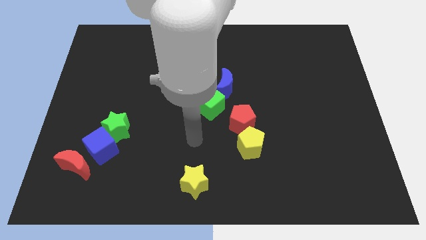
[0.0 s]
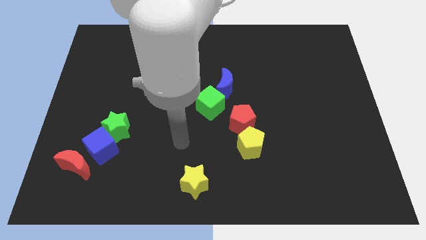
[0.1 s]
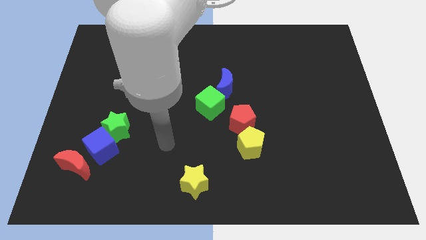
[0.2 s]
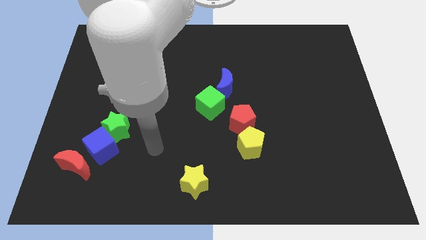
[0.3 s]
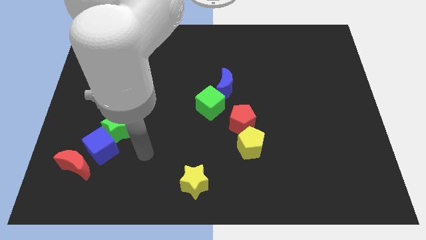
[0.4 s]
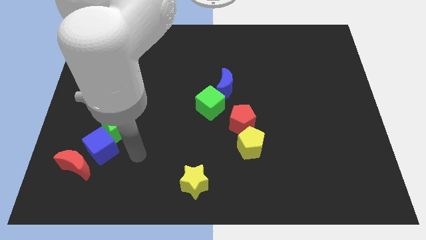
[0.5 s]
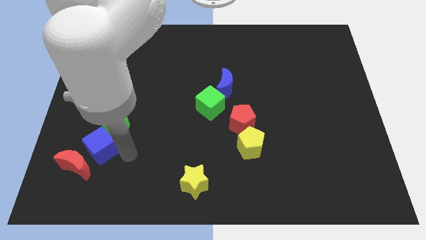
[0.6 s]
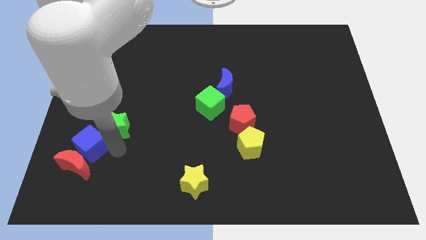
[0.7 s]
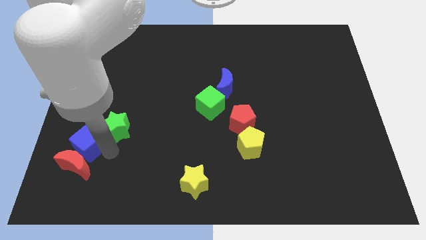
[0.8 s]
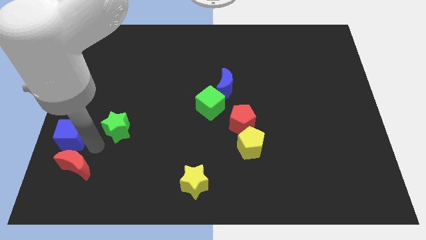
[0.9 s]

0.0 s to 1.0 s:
separate the green star from the blue cube

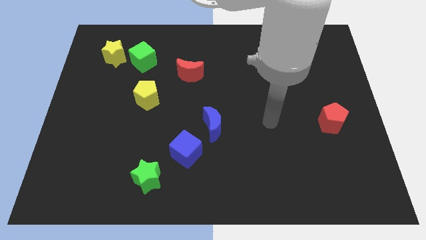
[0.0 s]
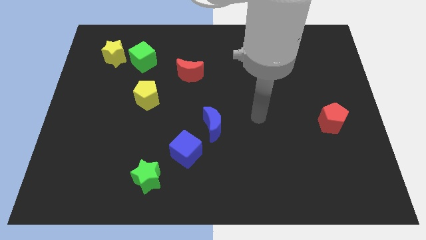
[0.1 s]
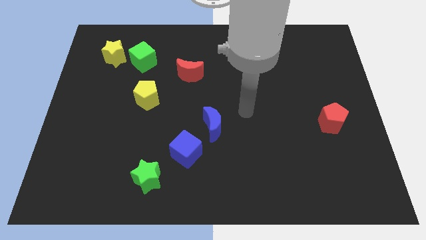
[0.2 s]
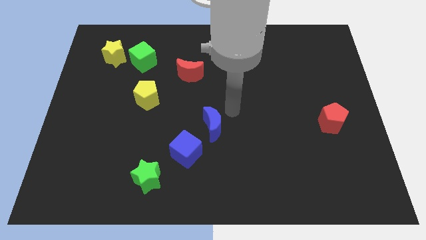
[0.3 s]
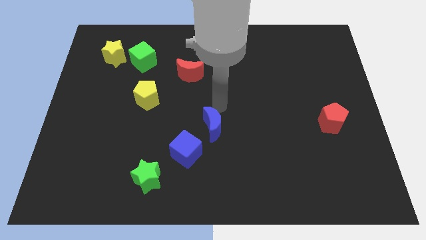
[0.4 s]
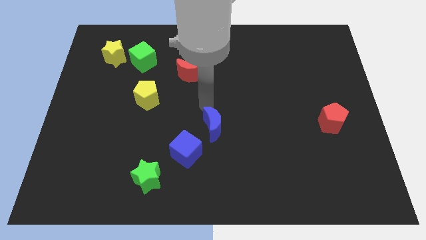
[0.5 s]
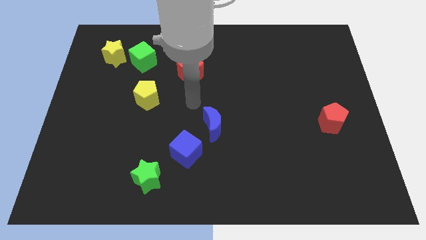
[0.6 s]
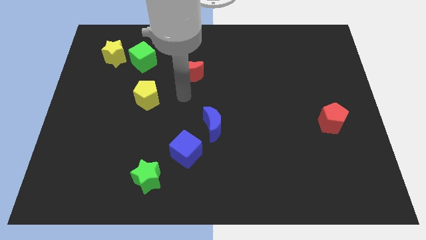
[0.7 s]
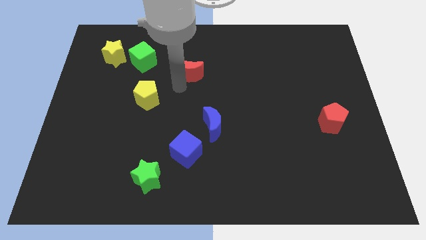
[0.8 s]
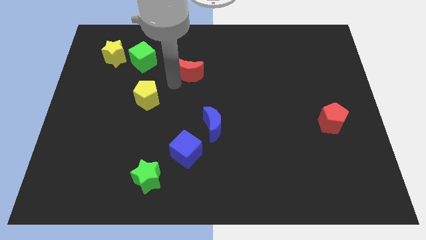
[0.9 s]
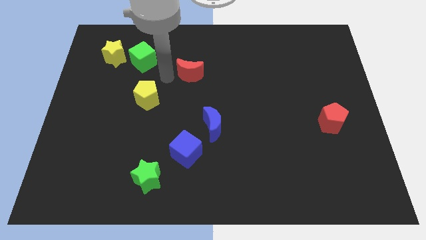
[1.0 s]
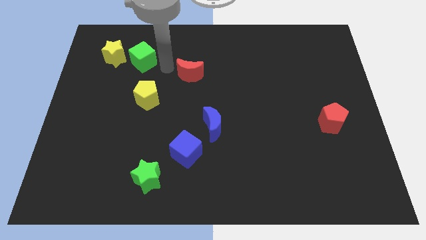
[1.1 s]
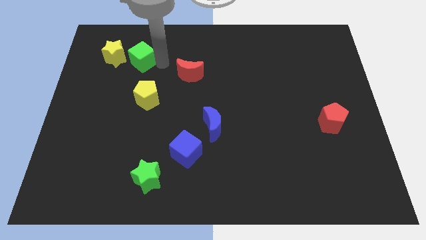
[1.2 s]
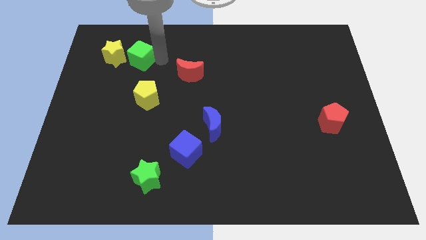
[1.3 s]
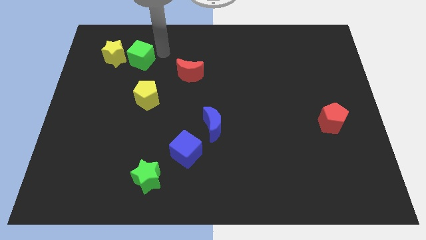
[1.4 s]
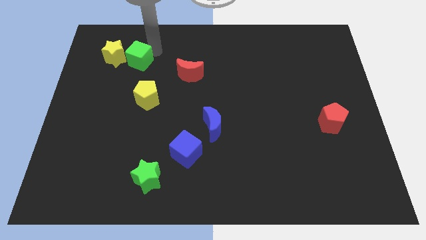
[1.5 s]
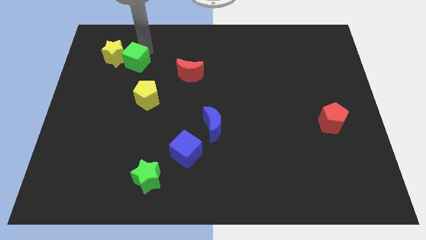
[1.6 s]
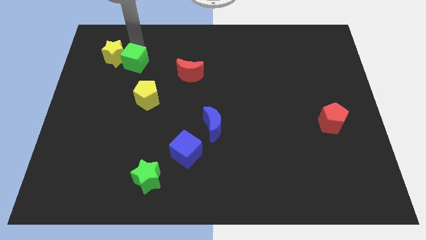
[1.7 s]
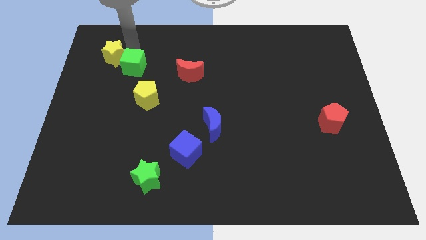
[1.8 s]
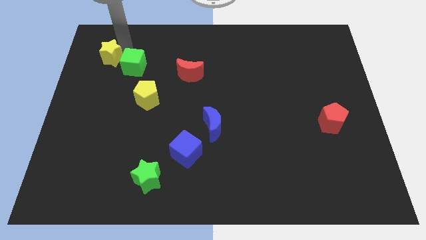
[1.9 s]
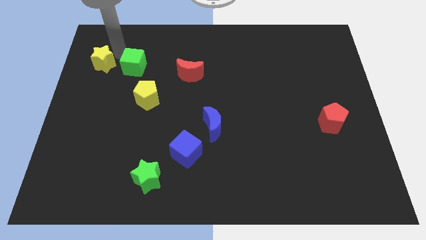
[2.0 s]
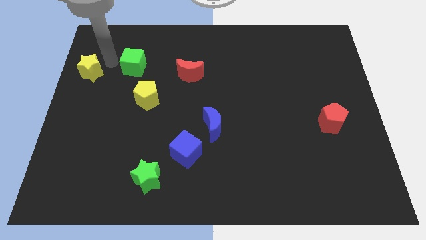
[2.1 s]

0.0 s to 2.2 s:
pull the green cube apart from the yellow star

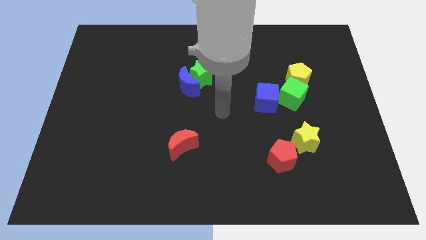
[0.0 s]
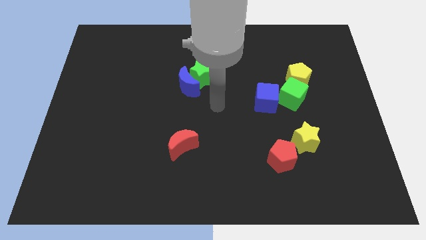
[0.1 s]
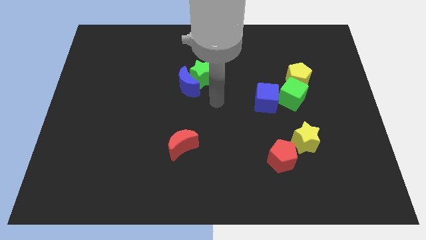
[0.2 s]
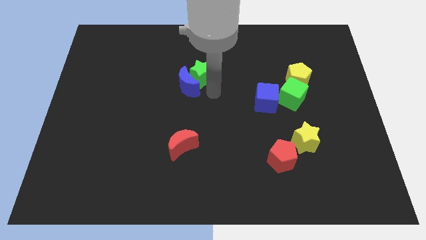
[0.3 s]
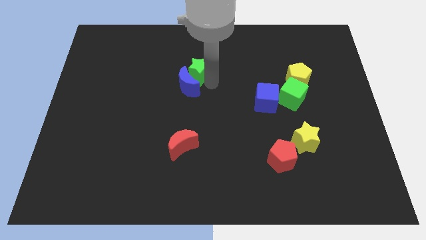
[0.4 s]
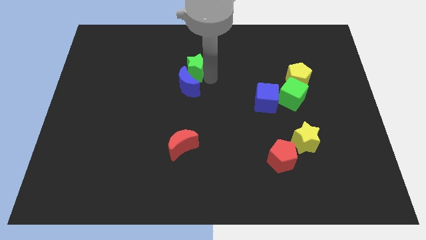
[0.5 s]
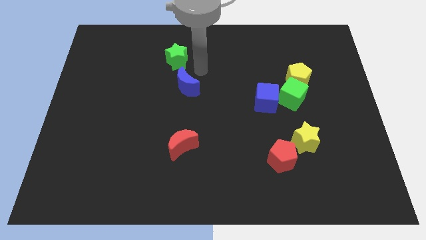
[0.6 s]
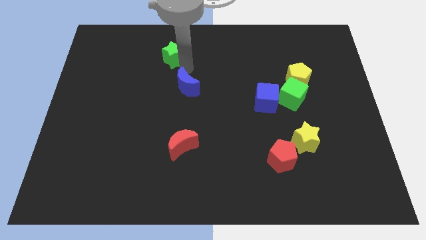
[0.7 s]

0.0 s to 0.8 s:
pull the blue moon apart from the green star

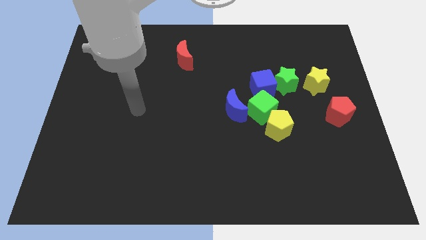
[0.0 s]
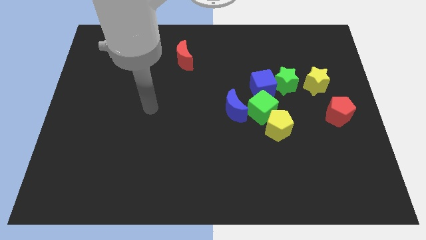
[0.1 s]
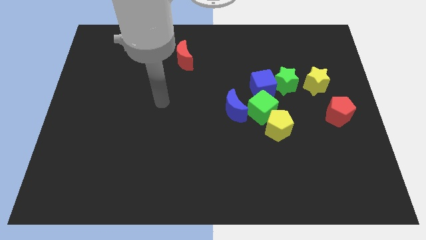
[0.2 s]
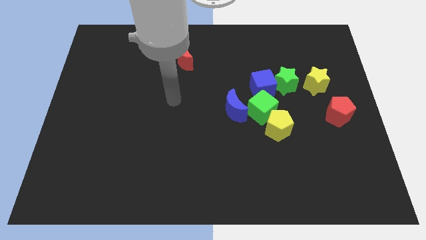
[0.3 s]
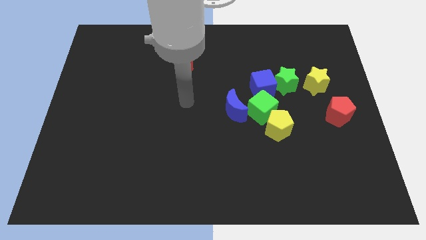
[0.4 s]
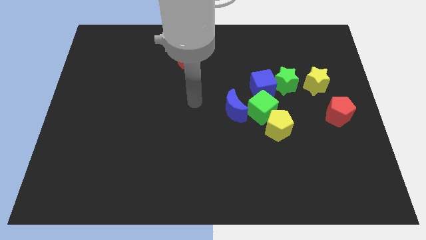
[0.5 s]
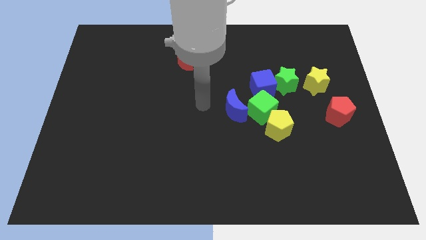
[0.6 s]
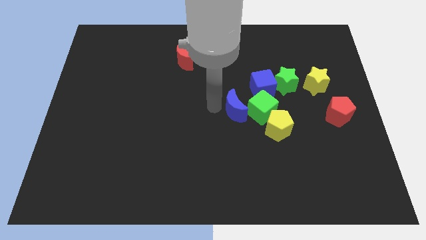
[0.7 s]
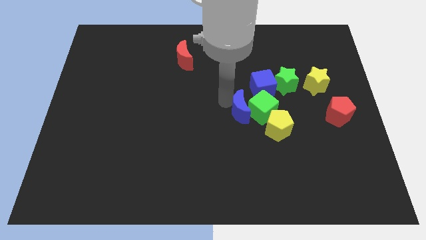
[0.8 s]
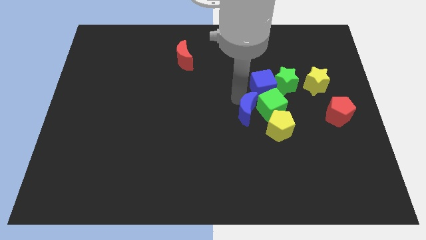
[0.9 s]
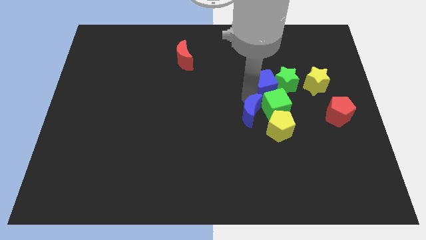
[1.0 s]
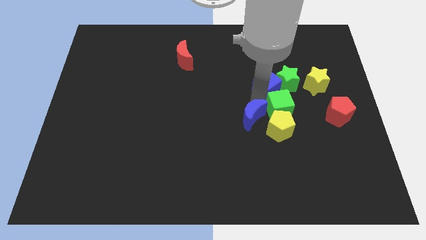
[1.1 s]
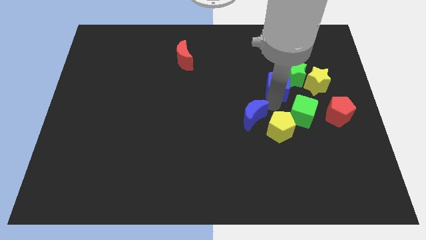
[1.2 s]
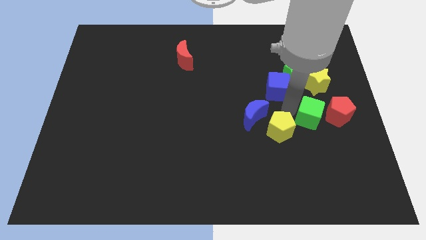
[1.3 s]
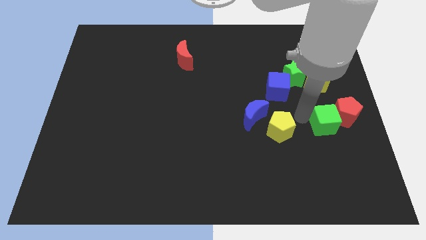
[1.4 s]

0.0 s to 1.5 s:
separate the yellow pentagon from the green cube

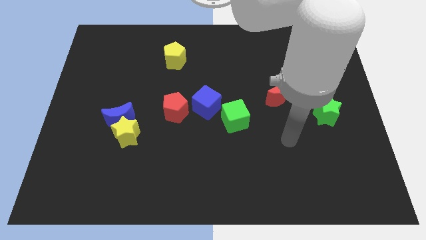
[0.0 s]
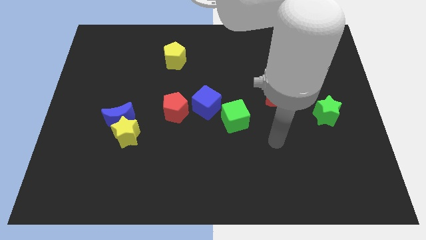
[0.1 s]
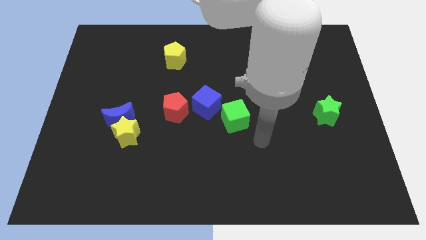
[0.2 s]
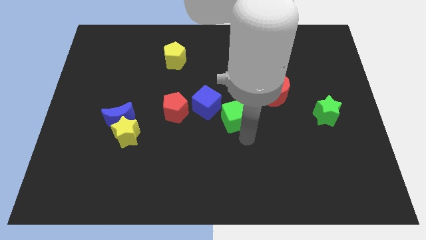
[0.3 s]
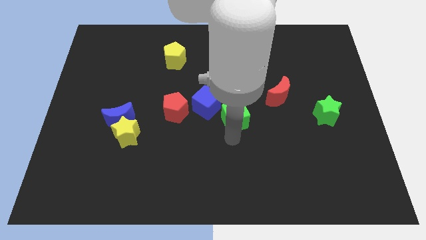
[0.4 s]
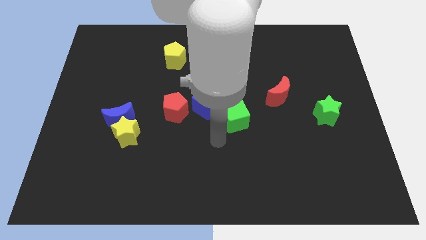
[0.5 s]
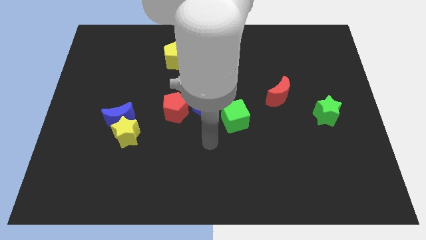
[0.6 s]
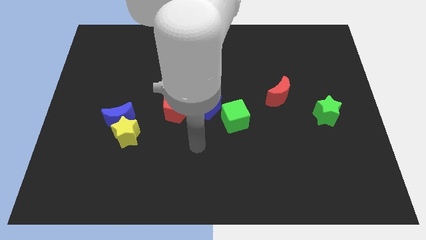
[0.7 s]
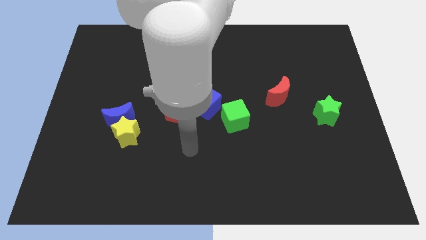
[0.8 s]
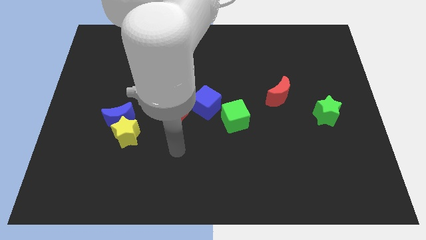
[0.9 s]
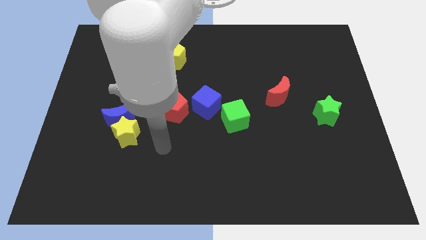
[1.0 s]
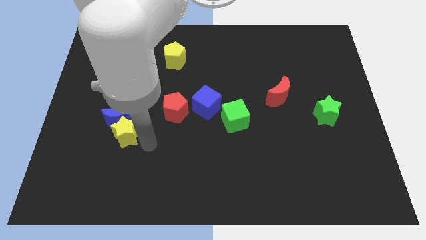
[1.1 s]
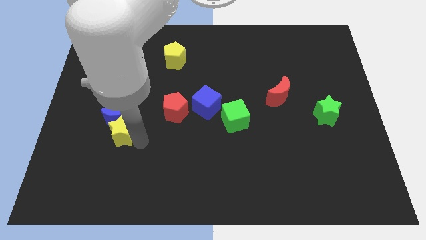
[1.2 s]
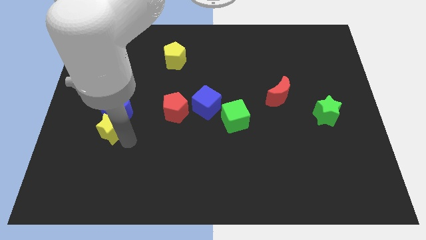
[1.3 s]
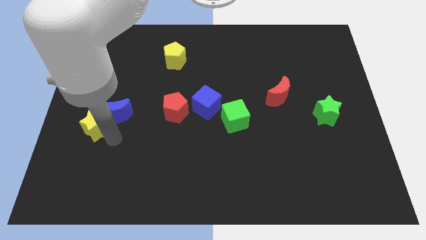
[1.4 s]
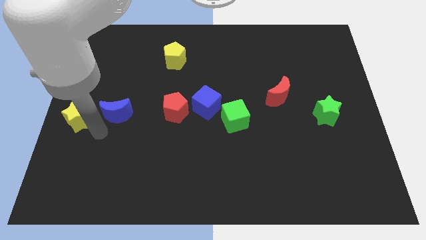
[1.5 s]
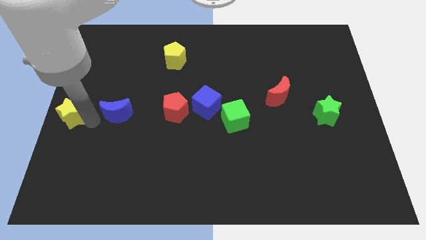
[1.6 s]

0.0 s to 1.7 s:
pull the blue moon apart from the yellow star

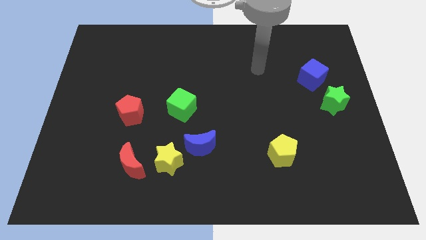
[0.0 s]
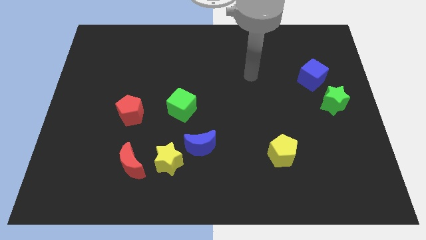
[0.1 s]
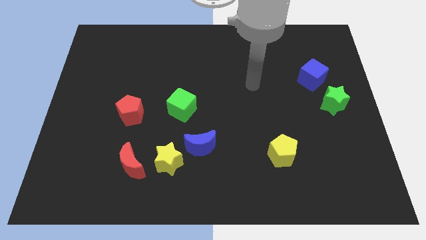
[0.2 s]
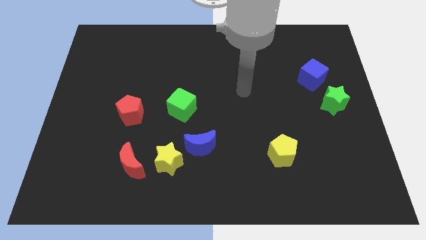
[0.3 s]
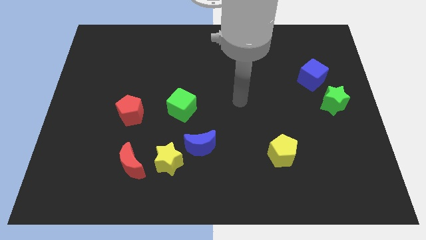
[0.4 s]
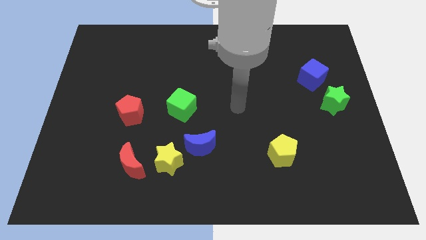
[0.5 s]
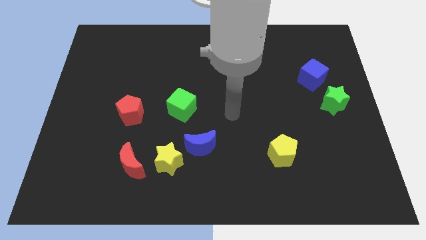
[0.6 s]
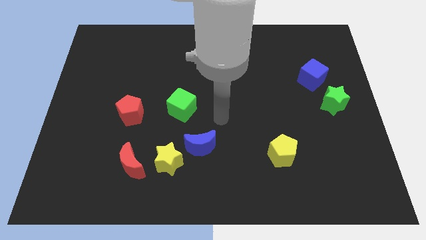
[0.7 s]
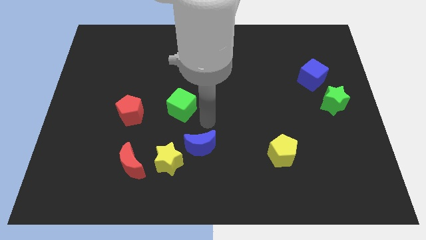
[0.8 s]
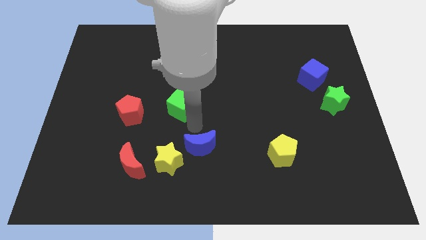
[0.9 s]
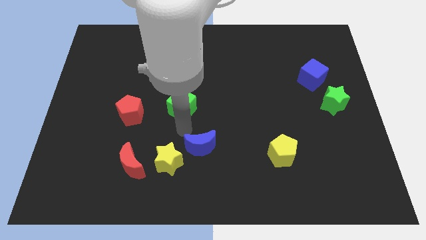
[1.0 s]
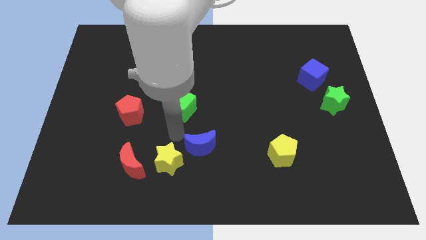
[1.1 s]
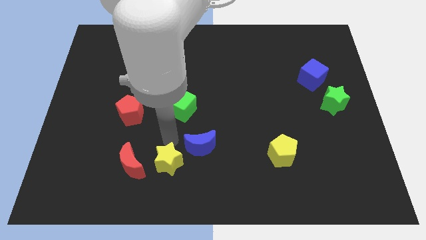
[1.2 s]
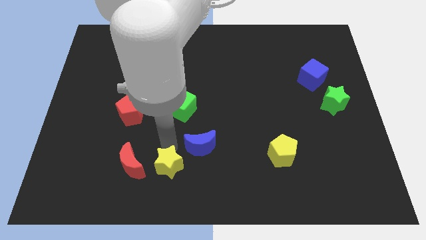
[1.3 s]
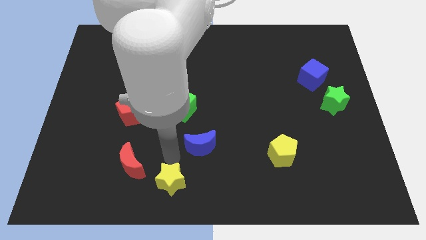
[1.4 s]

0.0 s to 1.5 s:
move the blue moon away from the yellow star

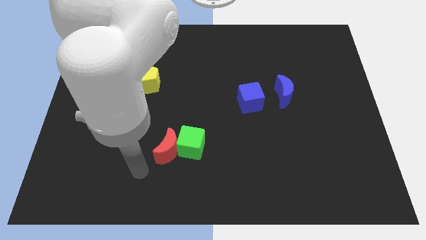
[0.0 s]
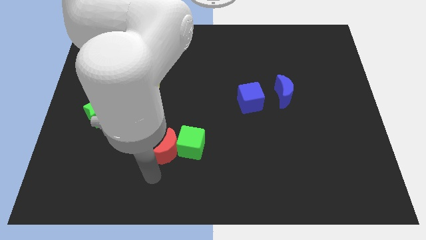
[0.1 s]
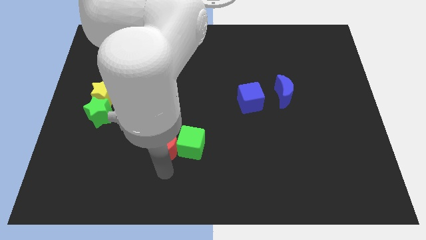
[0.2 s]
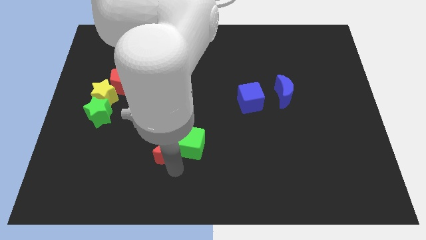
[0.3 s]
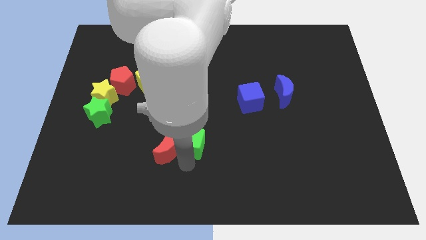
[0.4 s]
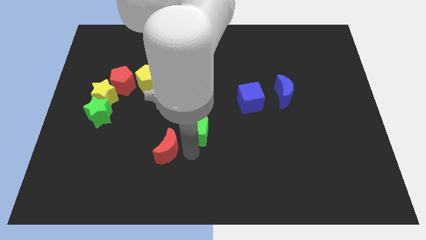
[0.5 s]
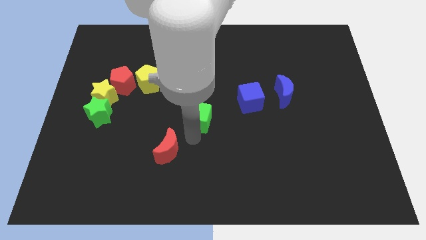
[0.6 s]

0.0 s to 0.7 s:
move the red moon away from the green cube
